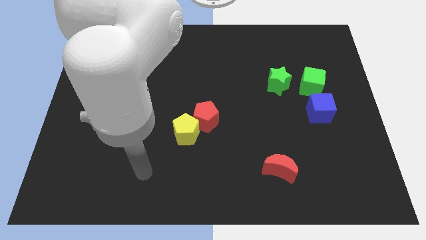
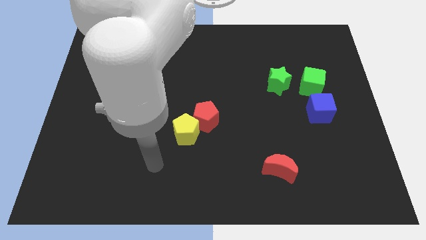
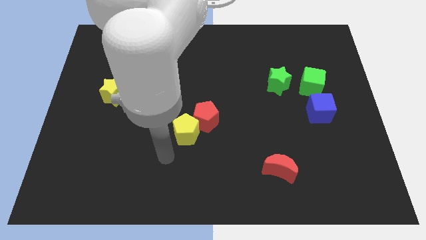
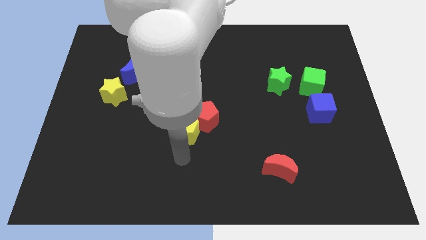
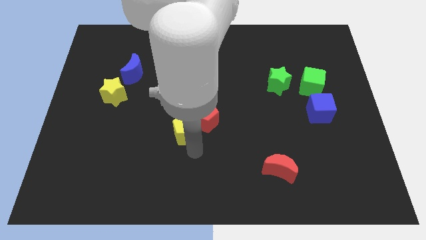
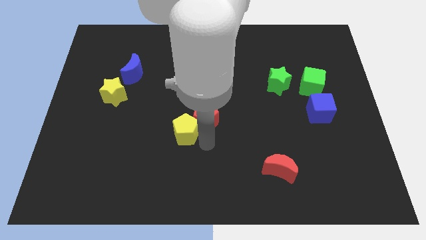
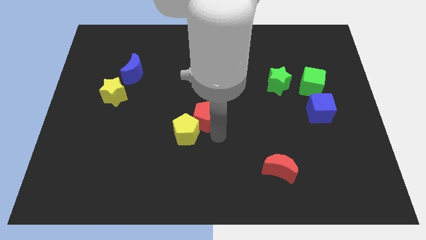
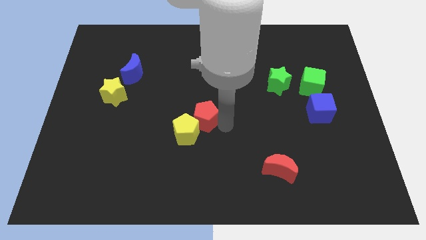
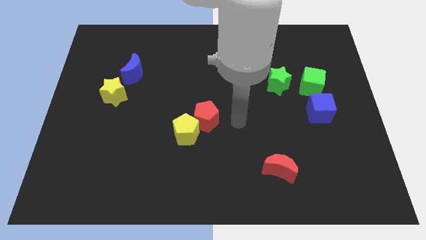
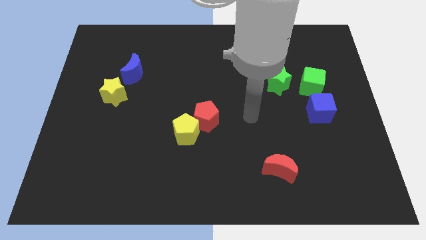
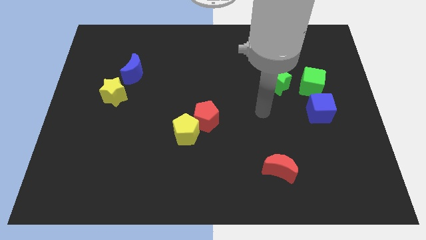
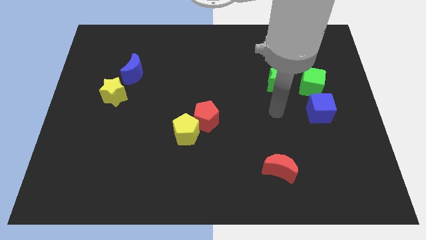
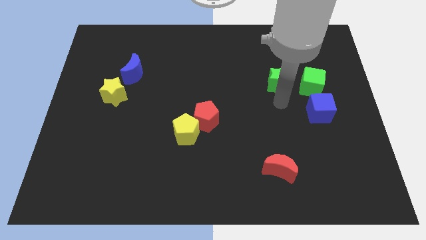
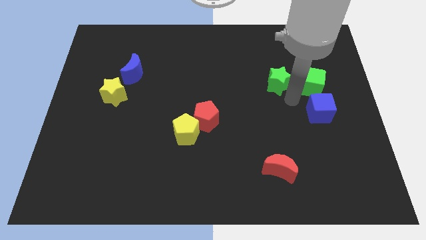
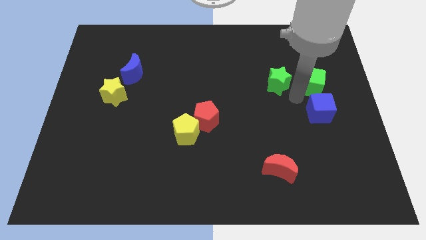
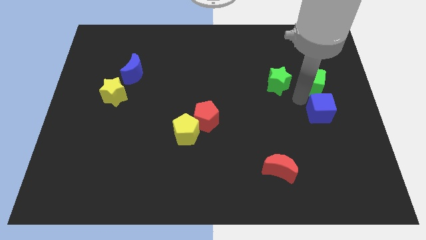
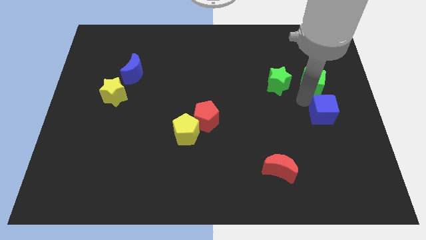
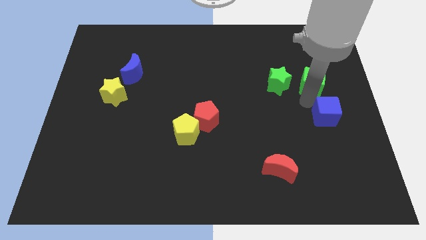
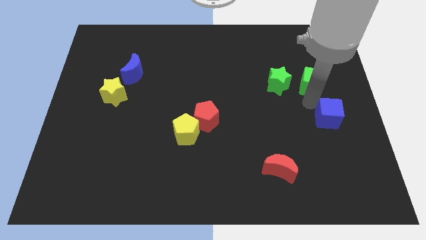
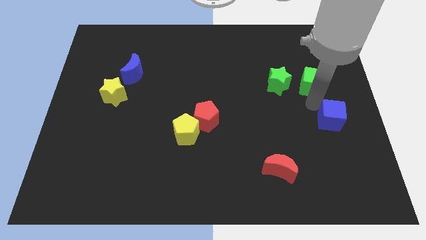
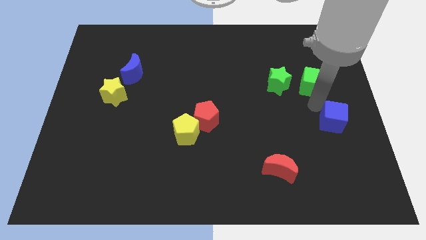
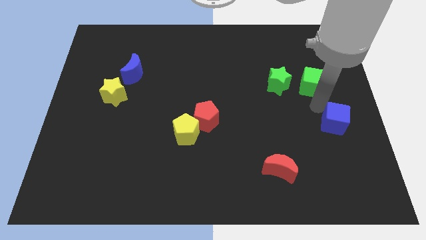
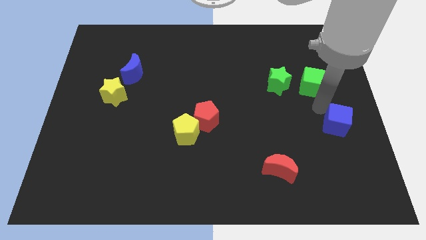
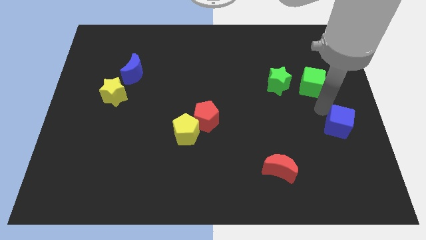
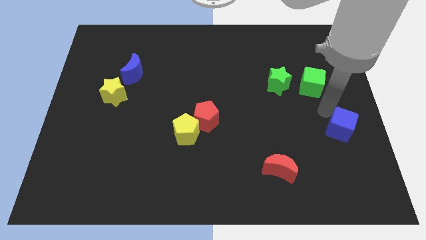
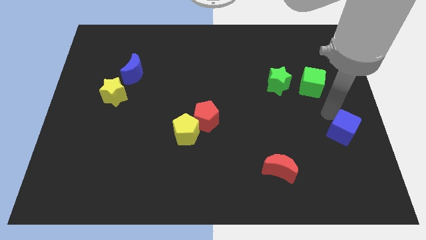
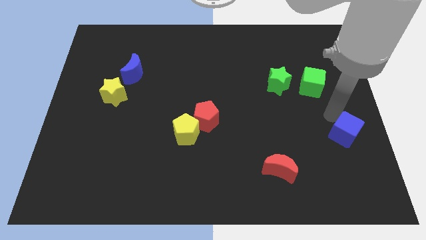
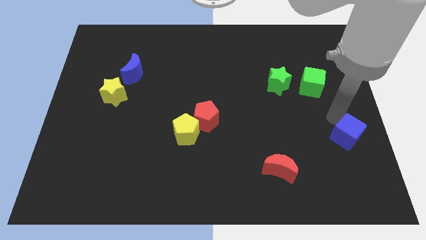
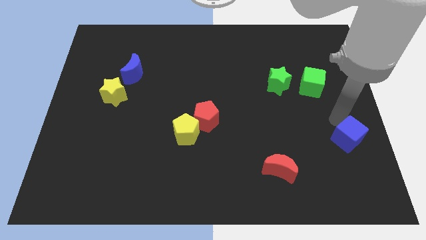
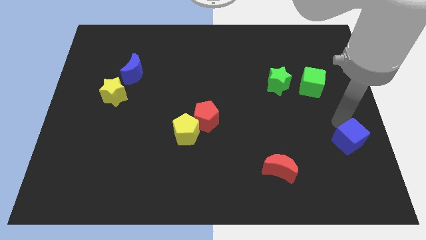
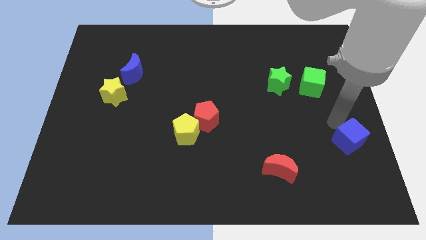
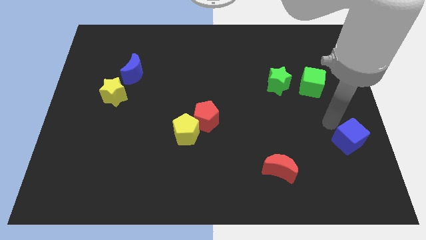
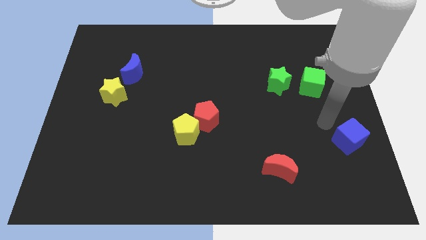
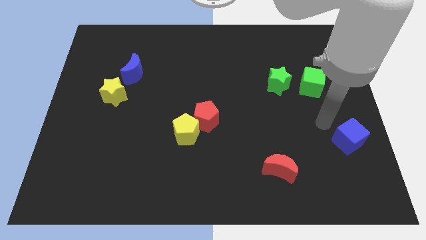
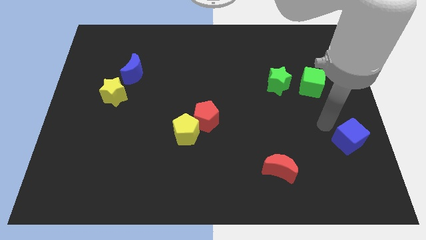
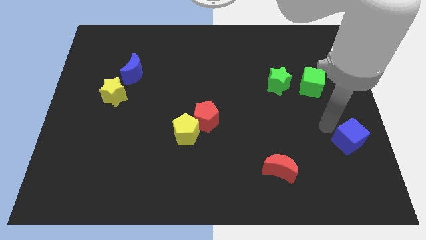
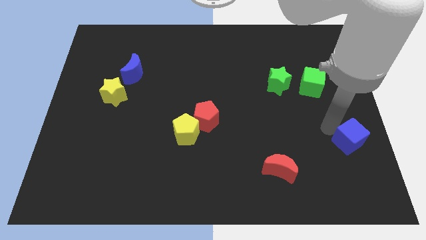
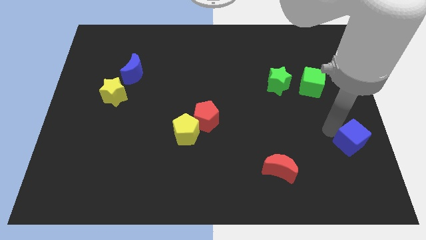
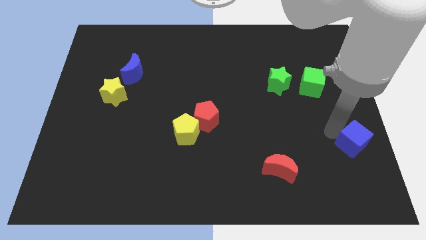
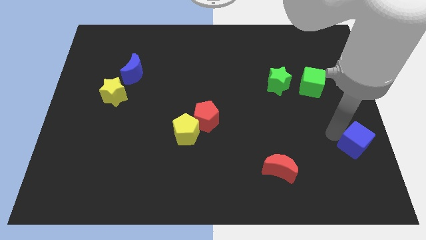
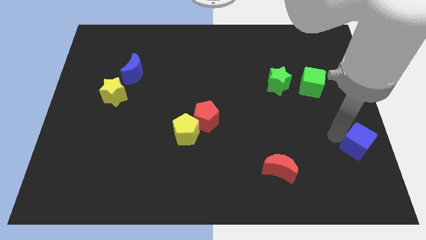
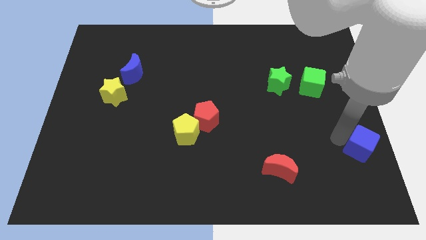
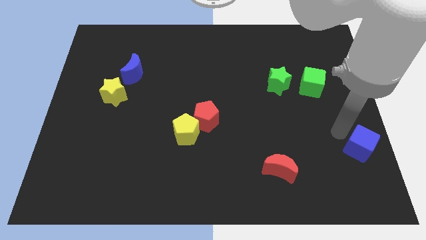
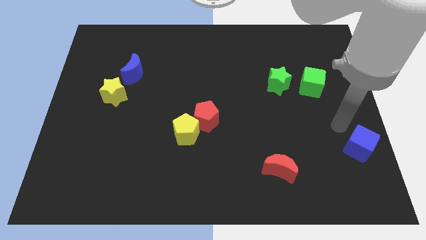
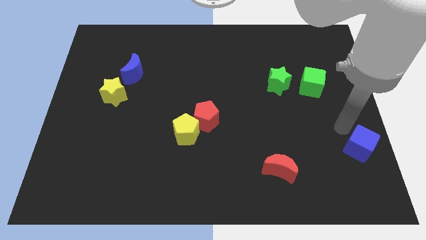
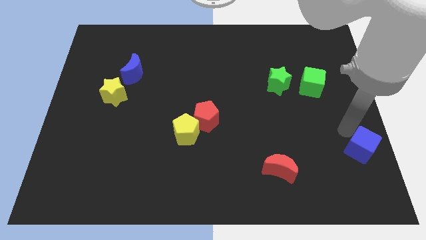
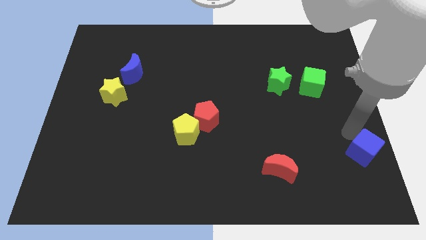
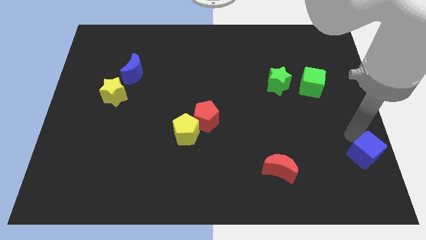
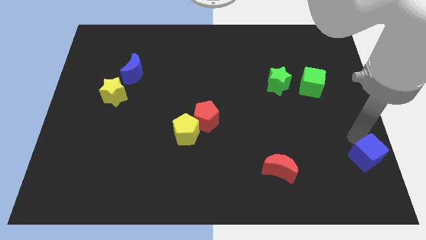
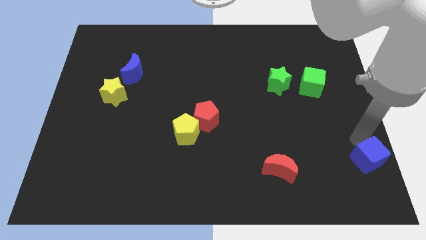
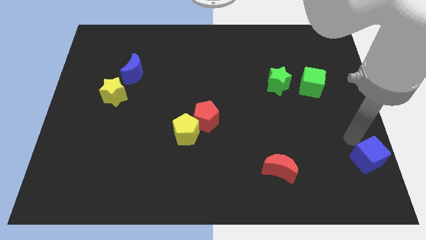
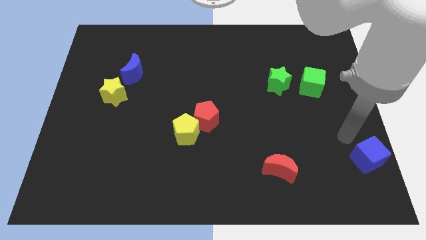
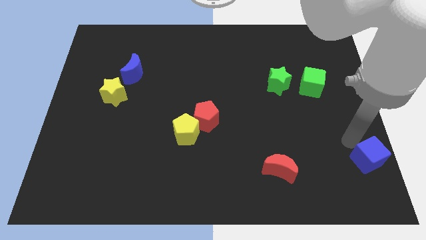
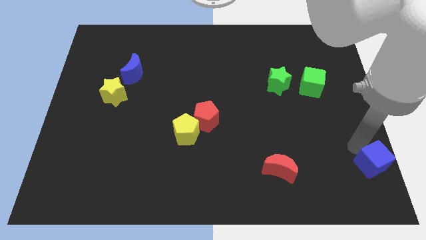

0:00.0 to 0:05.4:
move the blue cube to the lower right corner

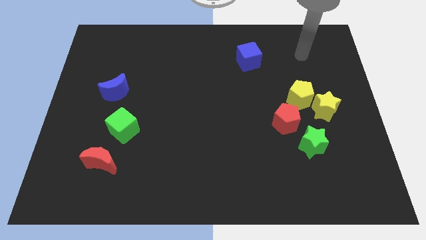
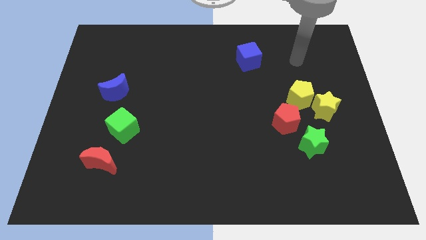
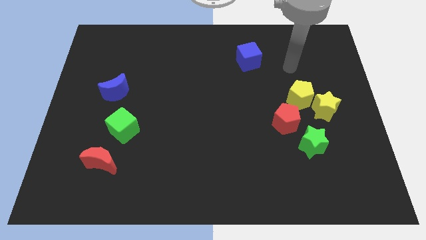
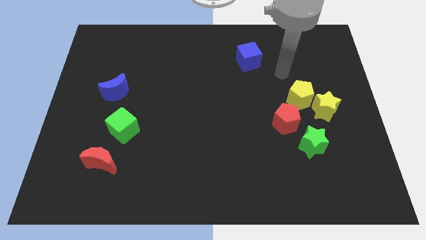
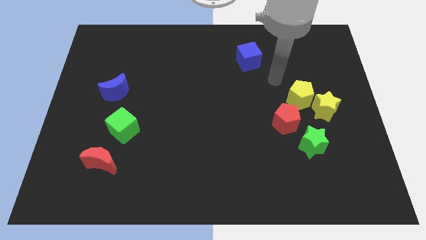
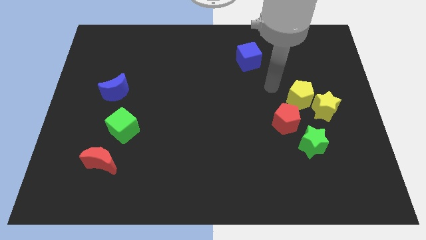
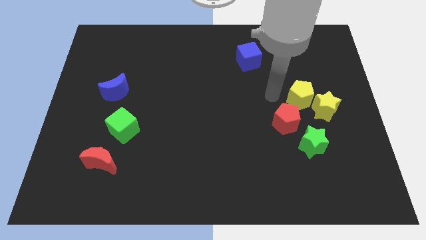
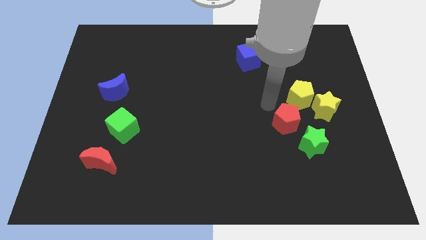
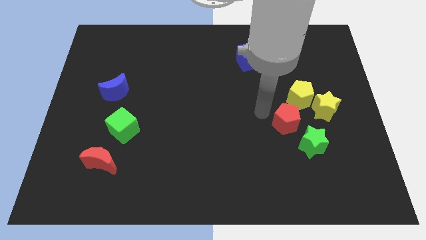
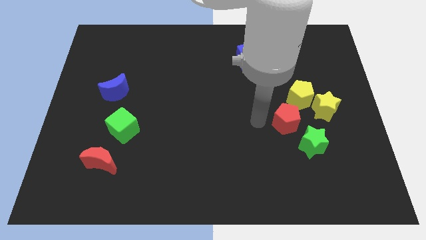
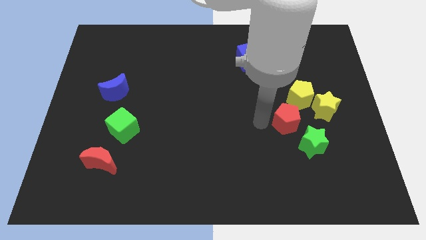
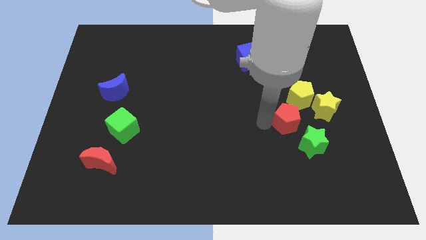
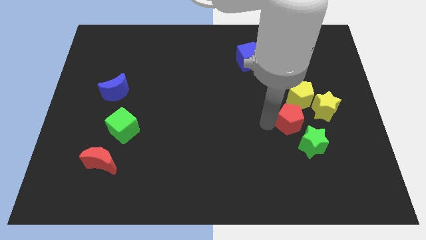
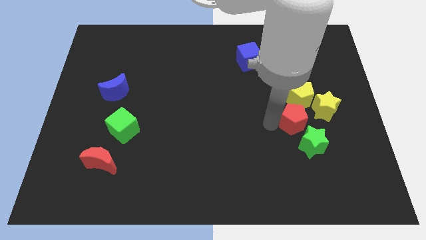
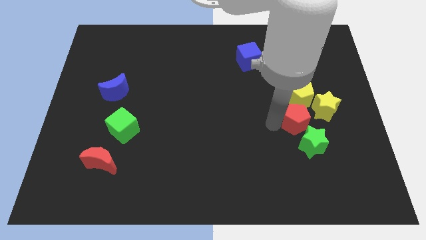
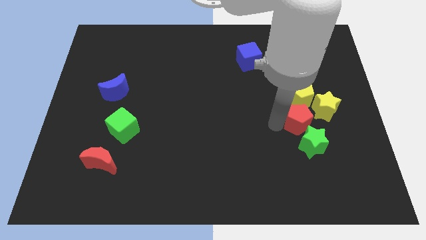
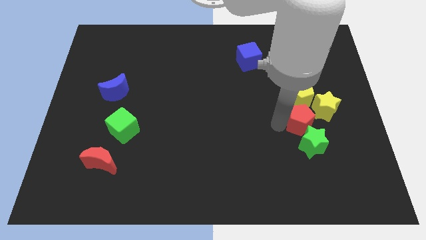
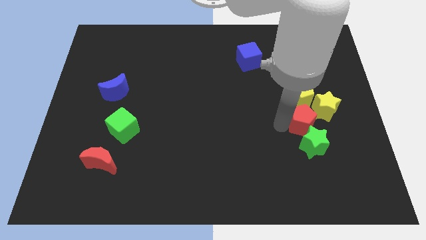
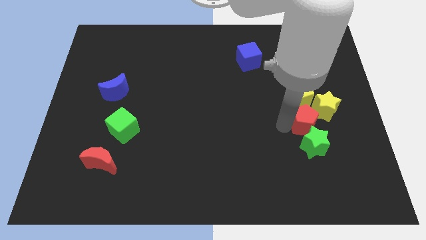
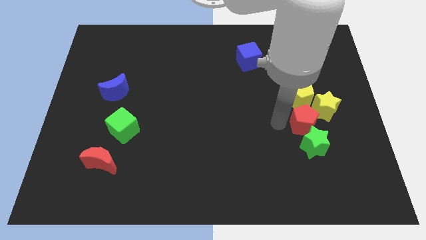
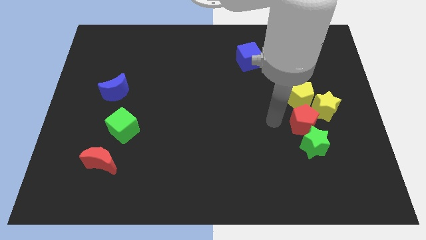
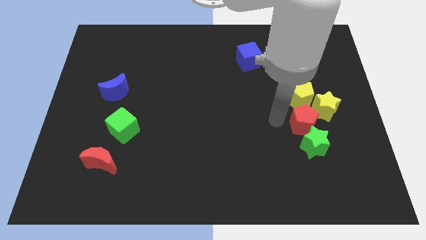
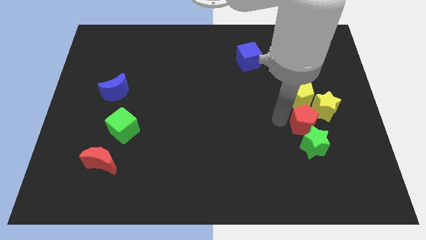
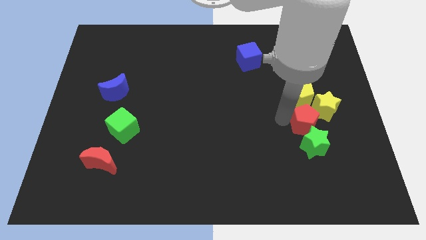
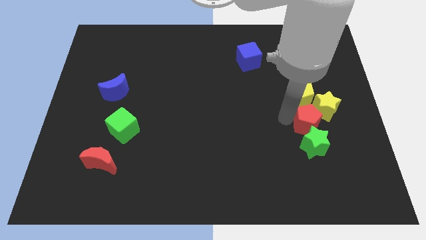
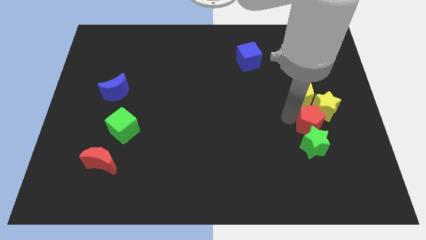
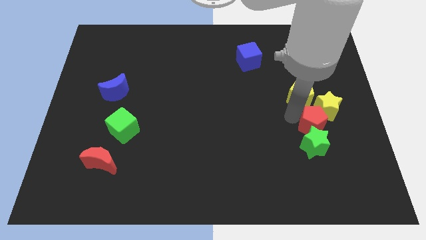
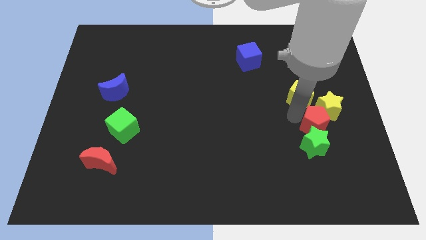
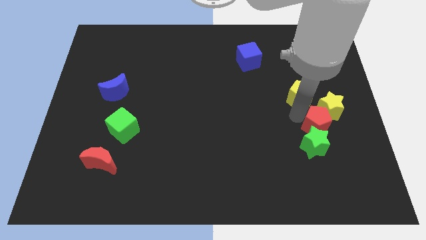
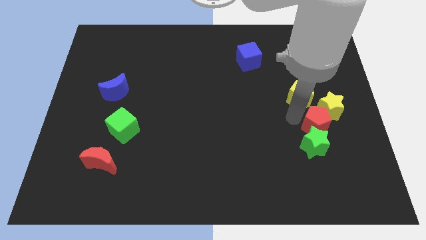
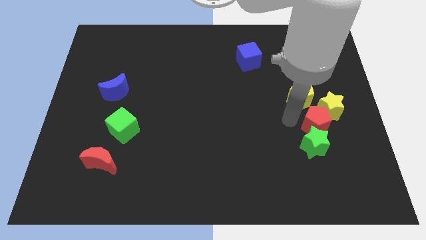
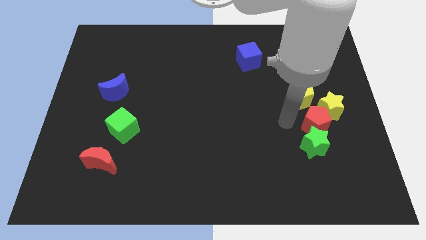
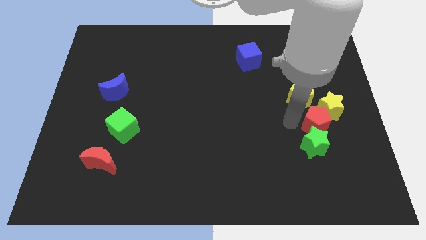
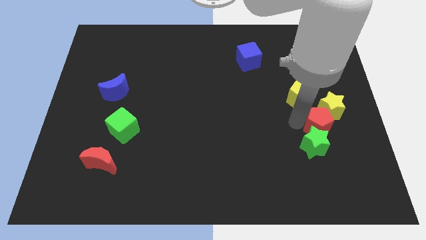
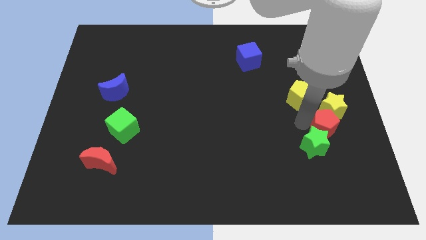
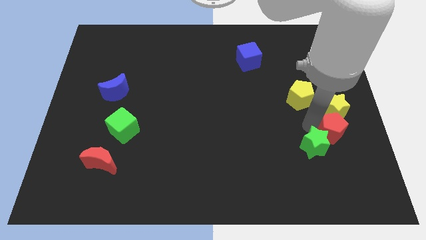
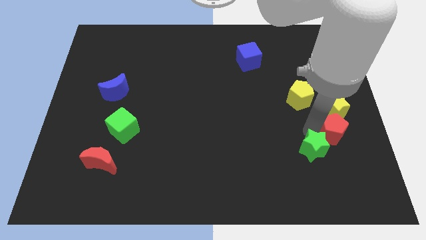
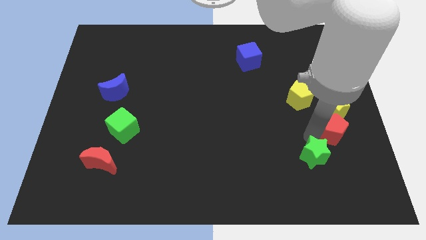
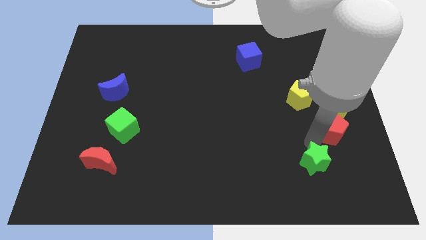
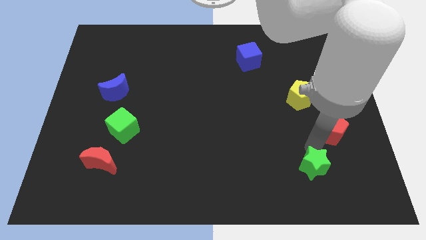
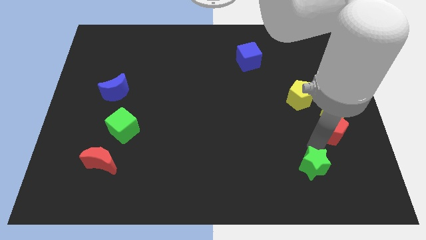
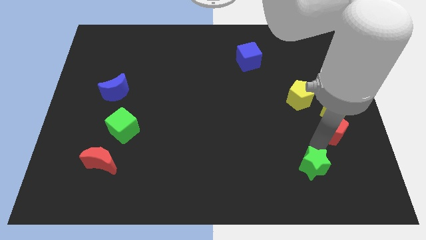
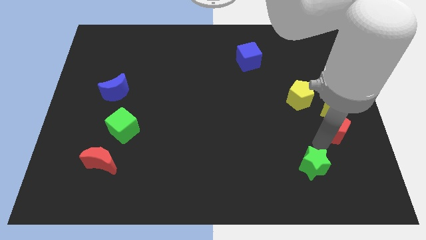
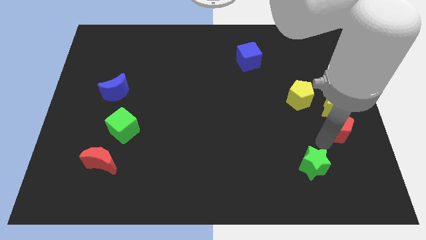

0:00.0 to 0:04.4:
move the red pentagon to the right side
